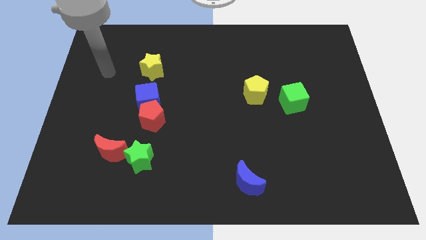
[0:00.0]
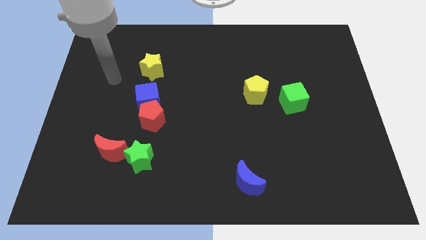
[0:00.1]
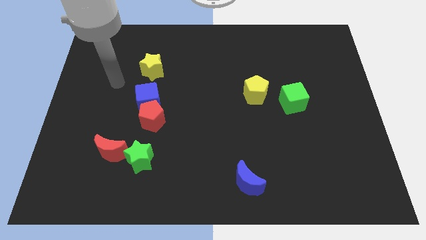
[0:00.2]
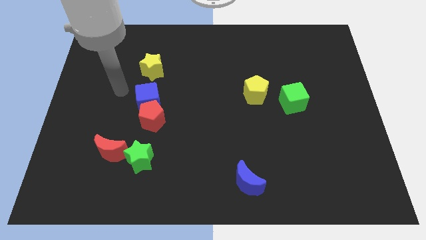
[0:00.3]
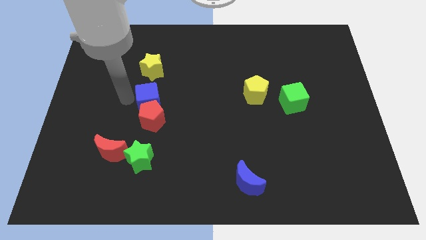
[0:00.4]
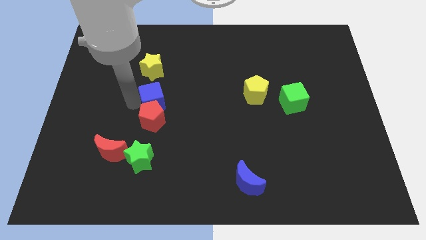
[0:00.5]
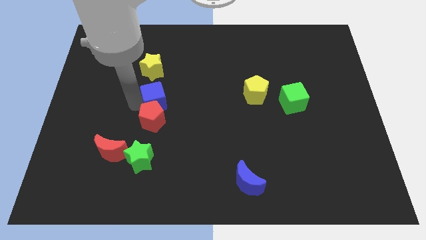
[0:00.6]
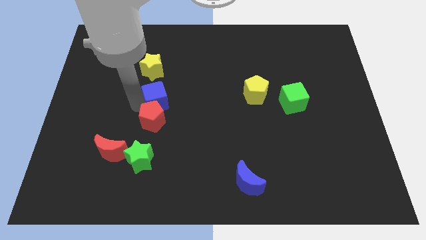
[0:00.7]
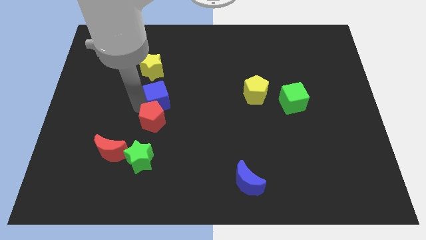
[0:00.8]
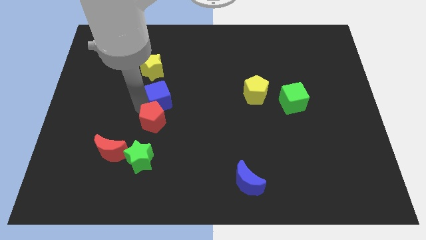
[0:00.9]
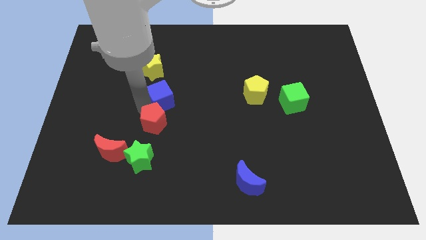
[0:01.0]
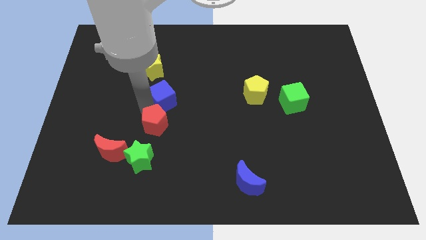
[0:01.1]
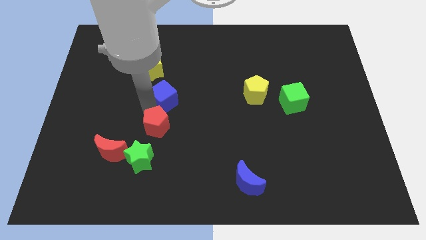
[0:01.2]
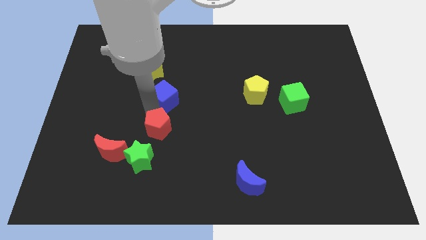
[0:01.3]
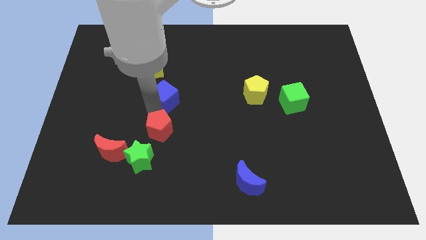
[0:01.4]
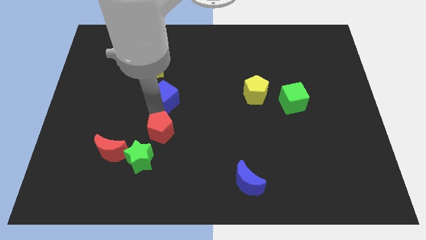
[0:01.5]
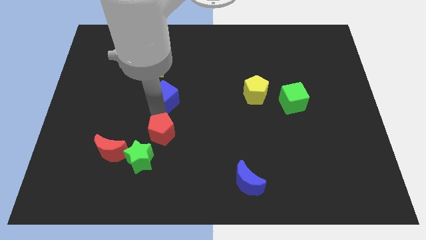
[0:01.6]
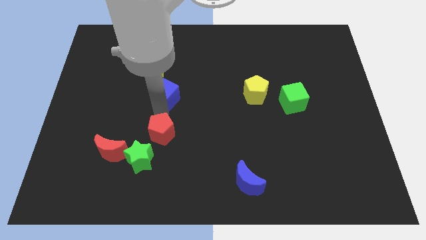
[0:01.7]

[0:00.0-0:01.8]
pull the red pentagon apart from the blue cube

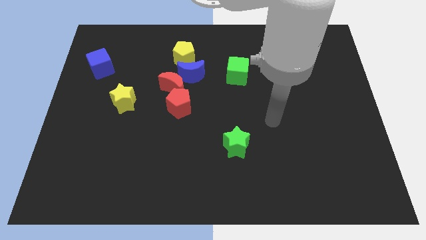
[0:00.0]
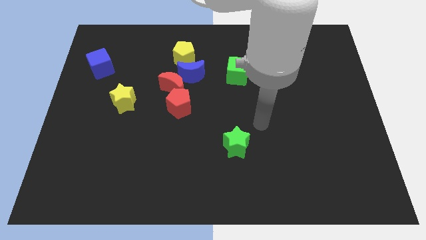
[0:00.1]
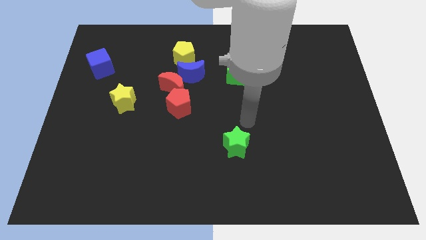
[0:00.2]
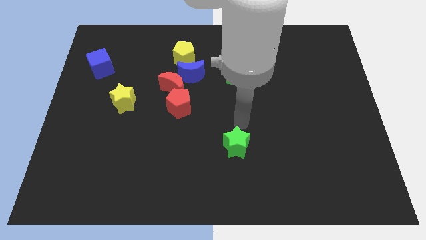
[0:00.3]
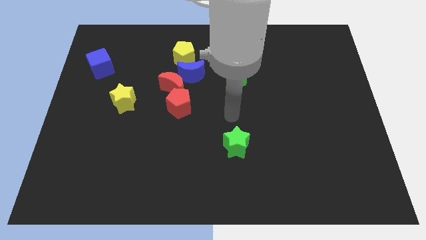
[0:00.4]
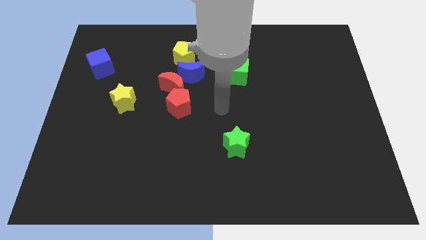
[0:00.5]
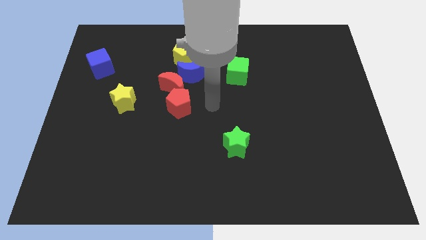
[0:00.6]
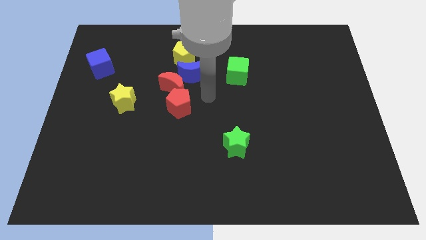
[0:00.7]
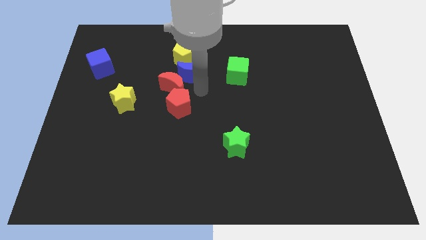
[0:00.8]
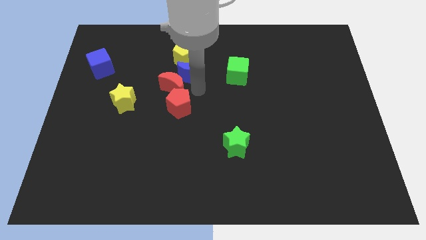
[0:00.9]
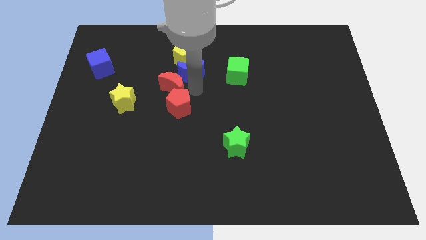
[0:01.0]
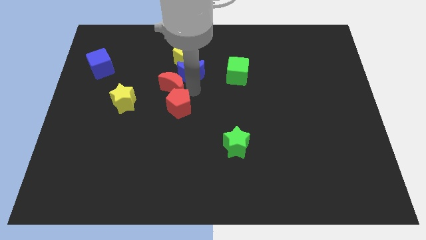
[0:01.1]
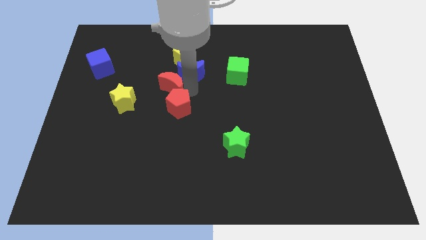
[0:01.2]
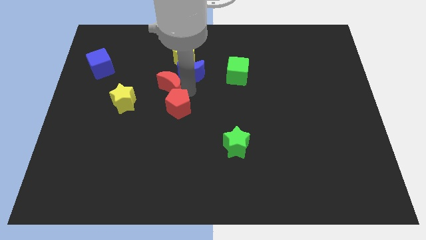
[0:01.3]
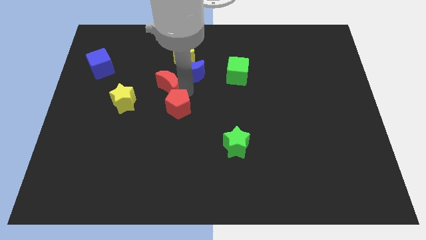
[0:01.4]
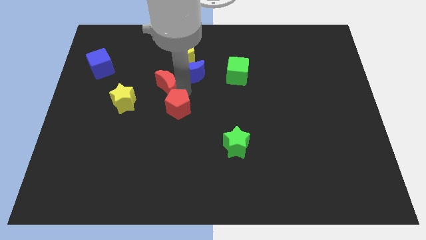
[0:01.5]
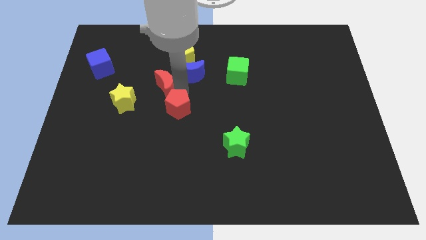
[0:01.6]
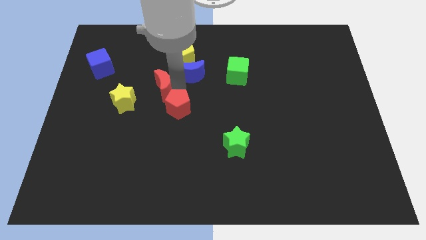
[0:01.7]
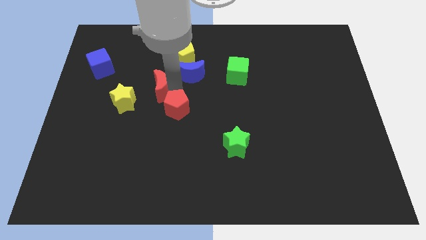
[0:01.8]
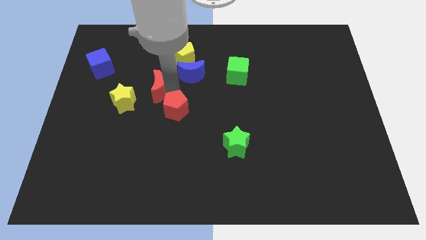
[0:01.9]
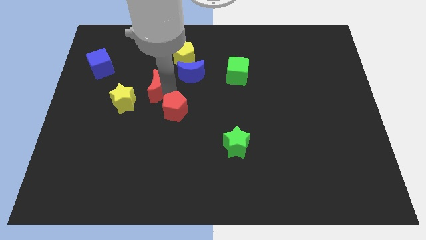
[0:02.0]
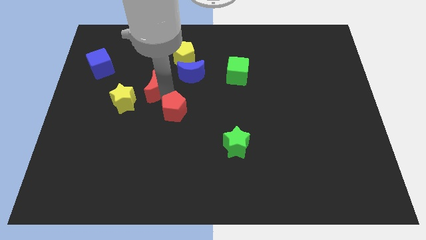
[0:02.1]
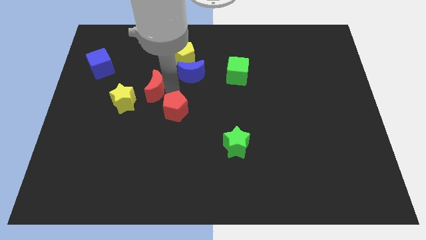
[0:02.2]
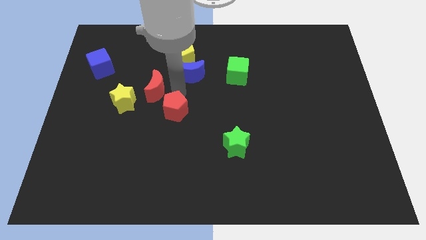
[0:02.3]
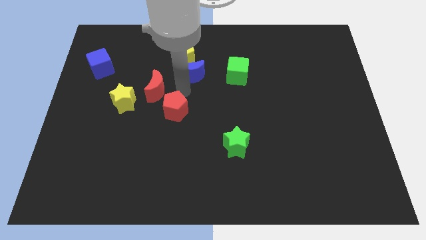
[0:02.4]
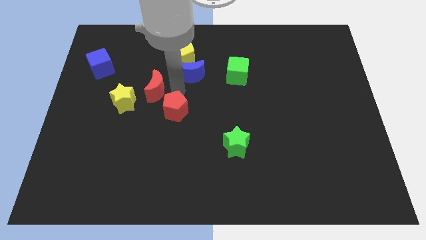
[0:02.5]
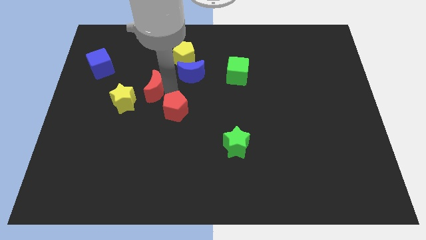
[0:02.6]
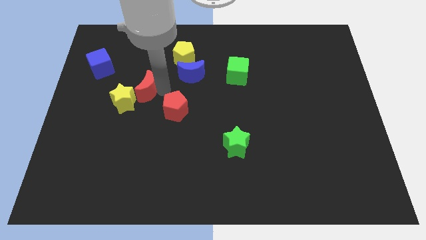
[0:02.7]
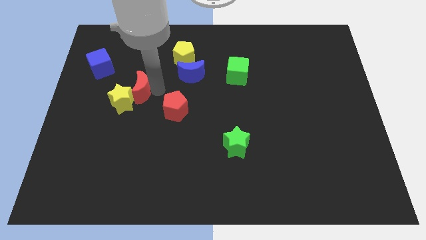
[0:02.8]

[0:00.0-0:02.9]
move the red moon away from the blue moon and red pentagon

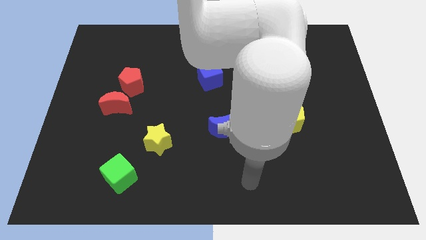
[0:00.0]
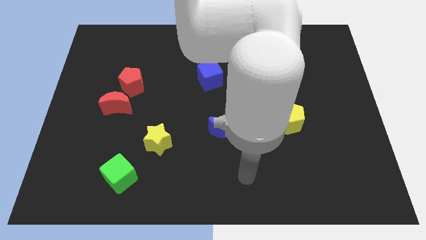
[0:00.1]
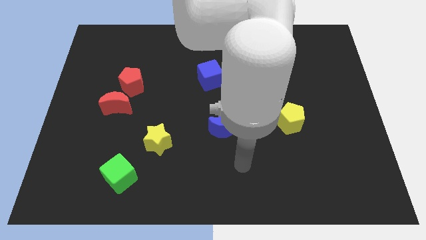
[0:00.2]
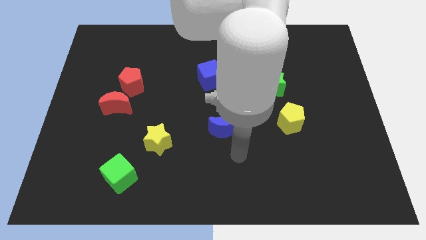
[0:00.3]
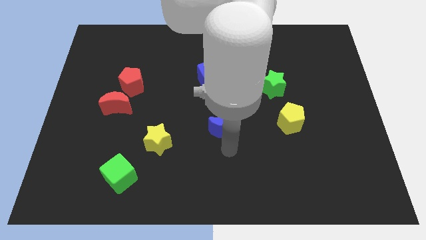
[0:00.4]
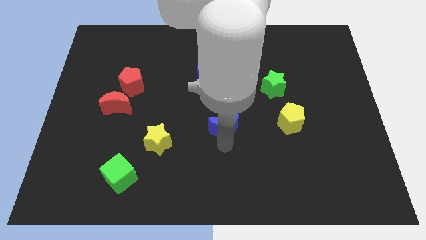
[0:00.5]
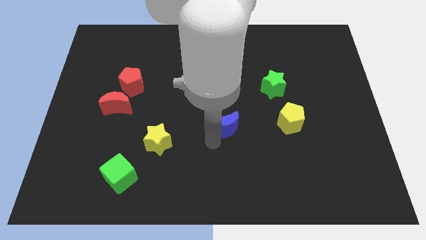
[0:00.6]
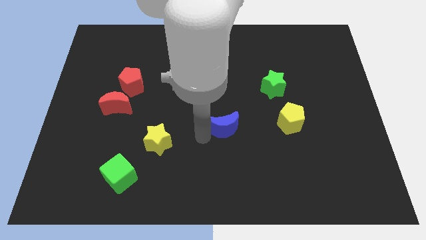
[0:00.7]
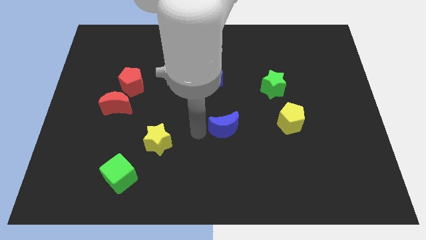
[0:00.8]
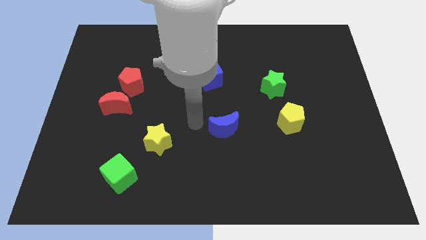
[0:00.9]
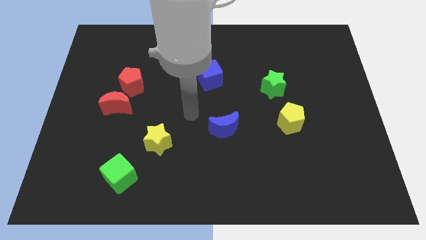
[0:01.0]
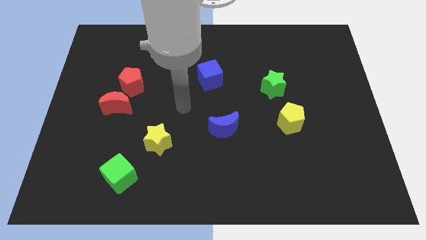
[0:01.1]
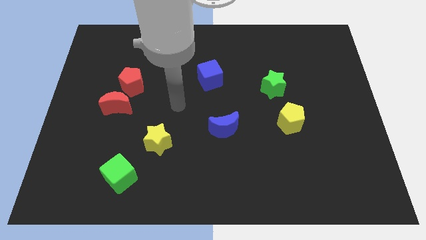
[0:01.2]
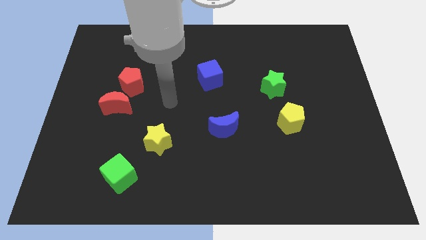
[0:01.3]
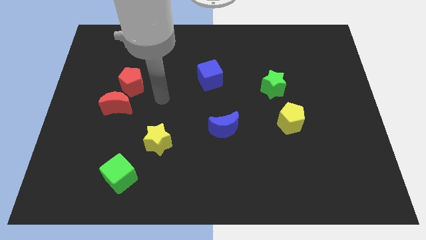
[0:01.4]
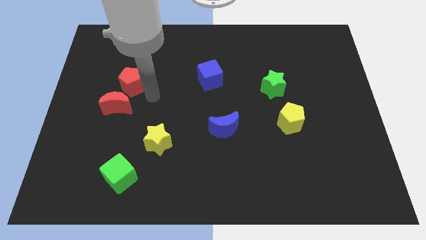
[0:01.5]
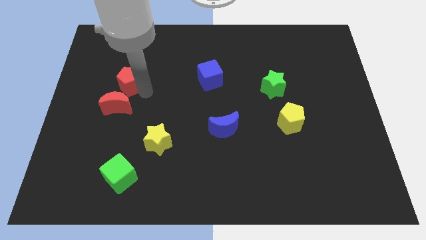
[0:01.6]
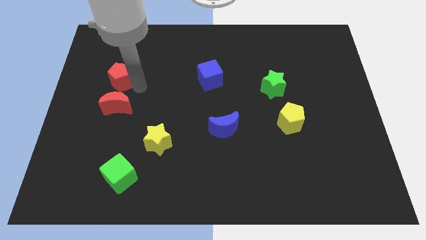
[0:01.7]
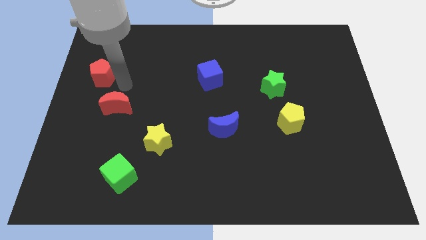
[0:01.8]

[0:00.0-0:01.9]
move the red moon away from the red pentagon

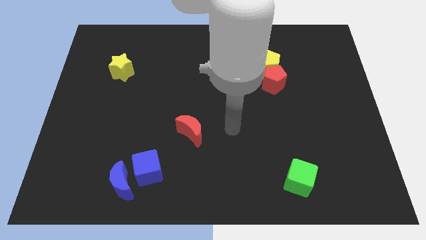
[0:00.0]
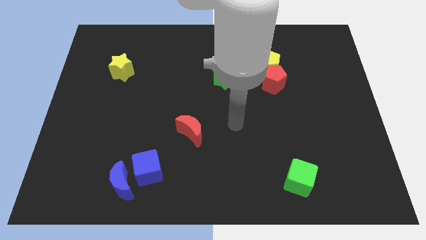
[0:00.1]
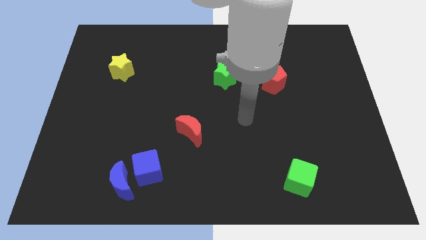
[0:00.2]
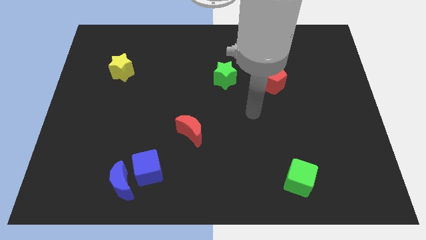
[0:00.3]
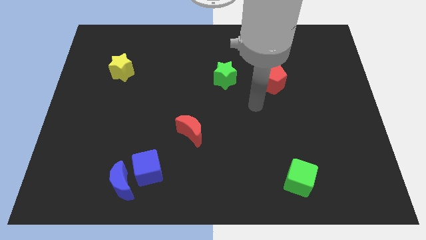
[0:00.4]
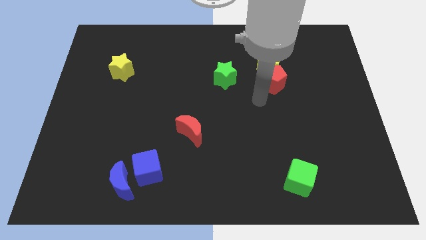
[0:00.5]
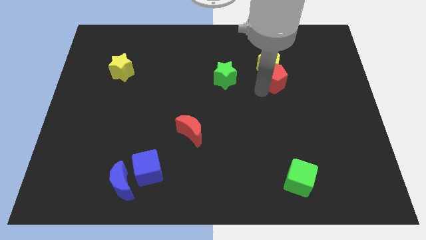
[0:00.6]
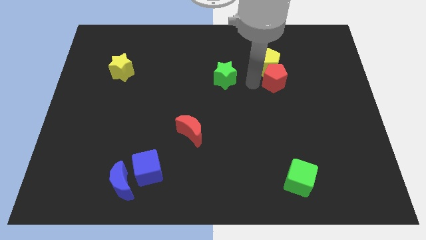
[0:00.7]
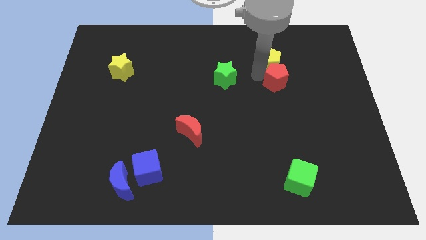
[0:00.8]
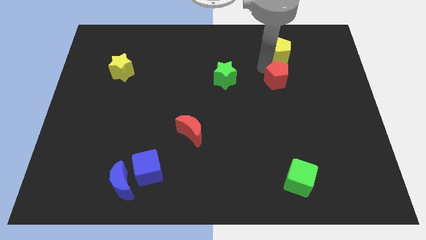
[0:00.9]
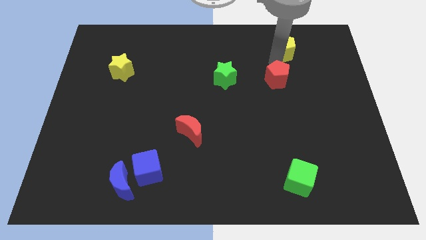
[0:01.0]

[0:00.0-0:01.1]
pull the red pentagon apart from the yellow pentagon

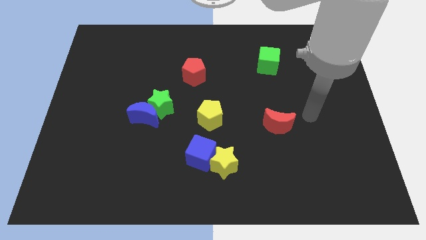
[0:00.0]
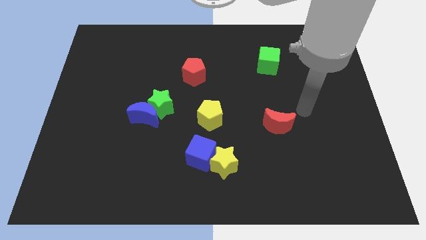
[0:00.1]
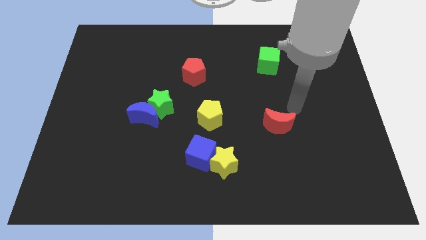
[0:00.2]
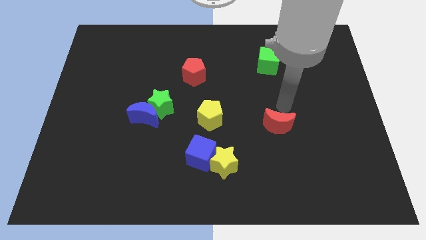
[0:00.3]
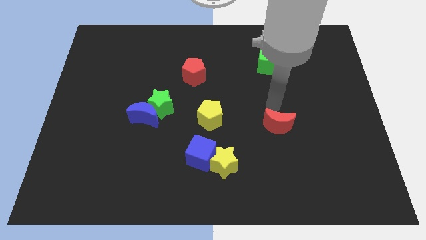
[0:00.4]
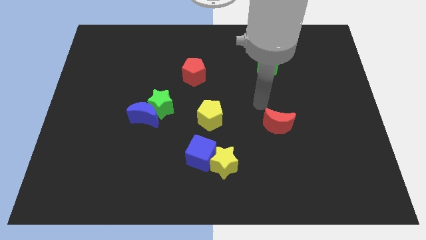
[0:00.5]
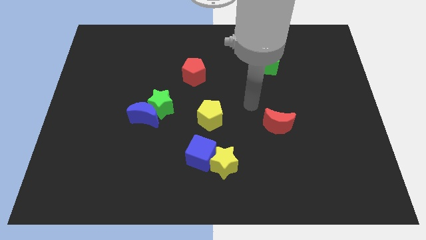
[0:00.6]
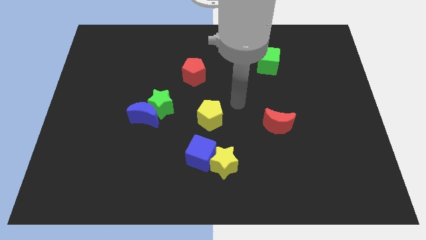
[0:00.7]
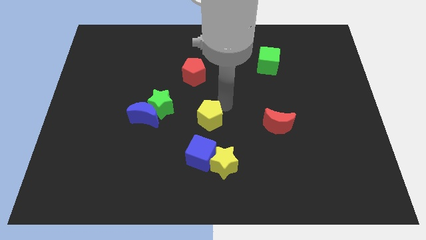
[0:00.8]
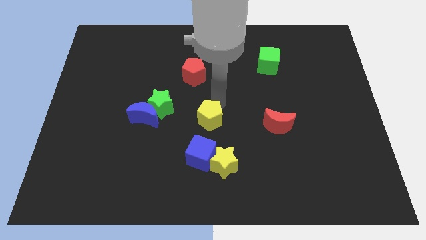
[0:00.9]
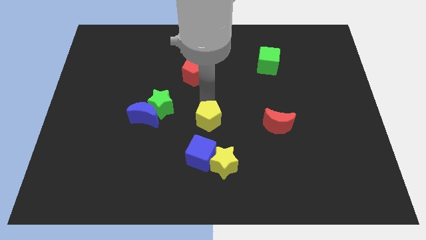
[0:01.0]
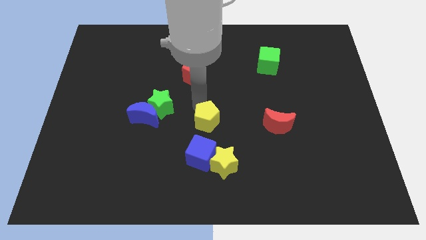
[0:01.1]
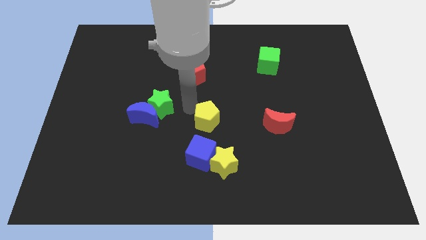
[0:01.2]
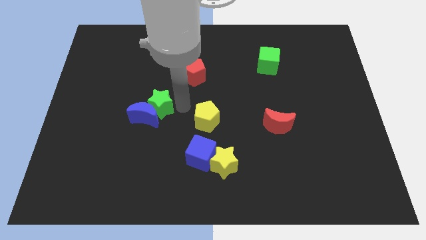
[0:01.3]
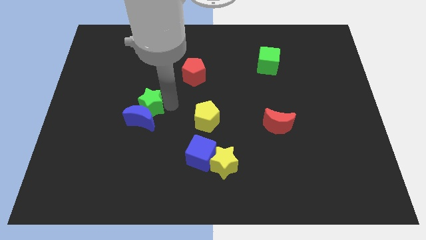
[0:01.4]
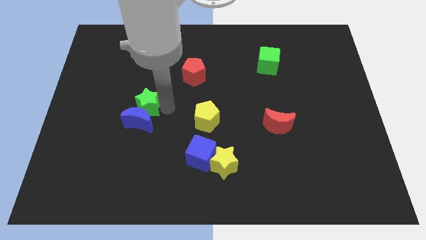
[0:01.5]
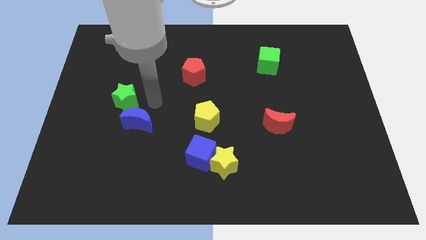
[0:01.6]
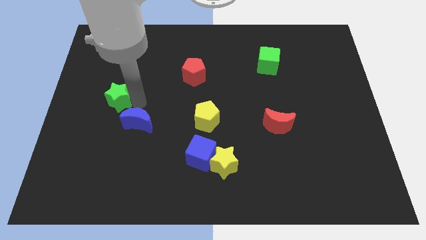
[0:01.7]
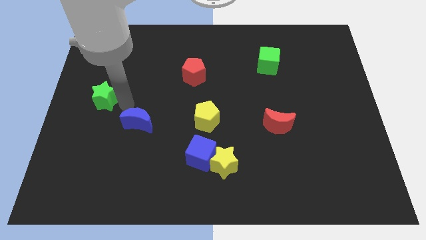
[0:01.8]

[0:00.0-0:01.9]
pull the blue moon apart from the green star
